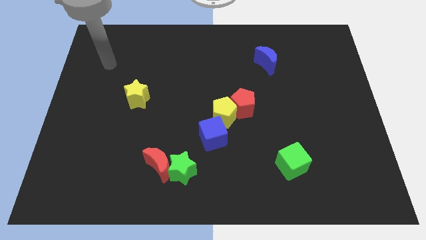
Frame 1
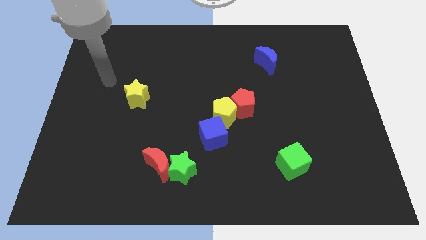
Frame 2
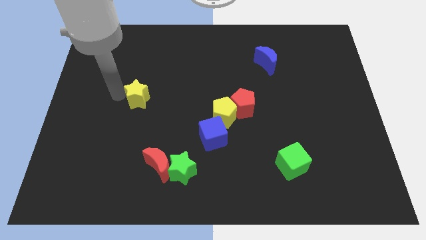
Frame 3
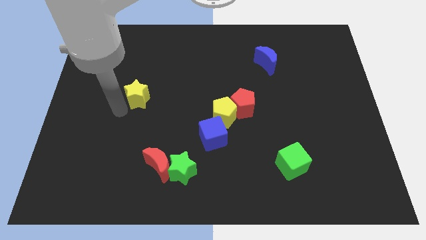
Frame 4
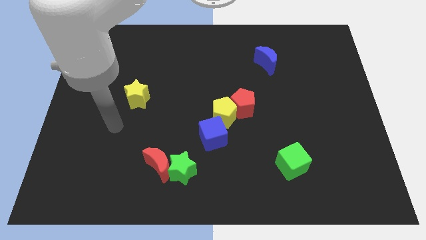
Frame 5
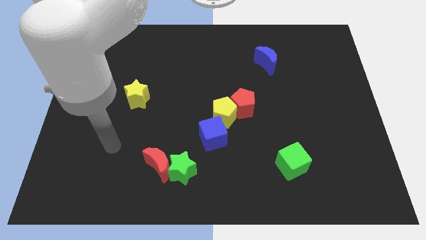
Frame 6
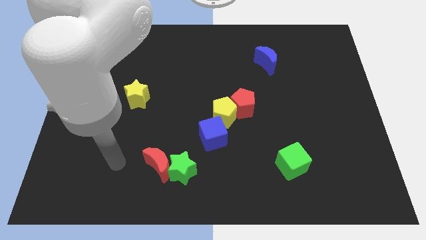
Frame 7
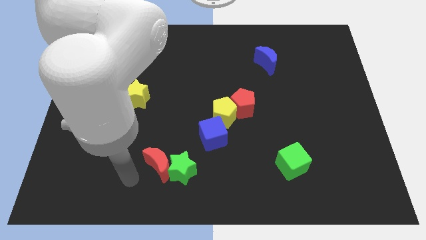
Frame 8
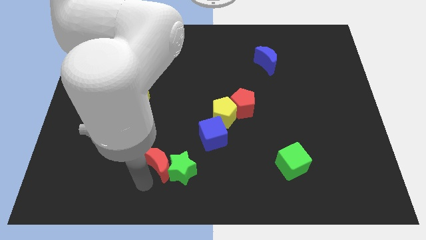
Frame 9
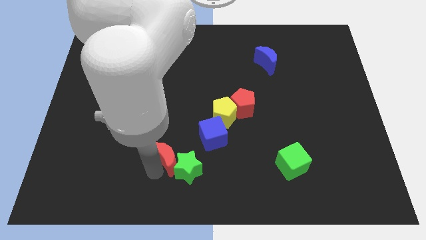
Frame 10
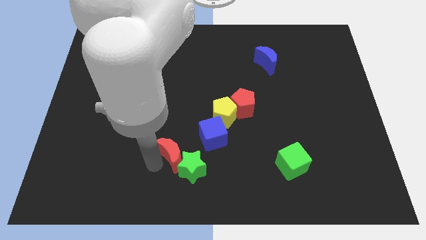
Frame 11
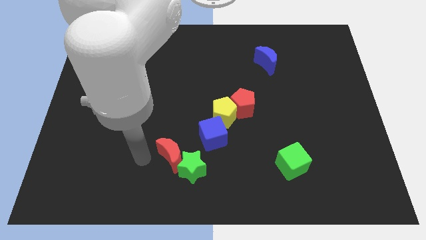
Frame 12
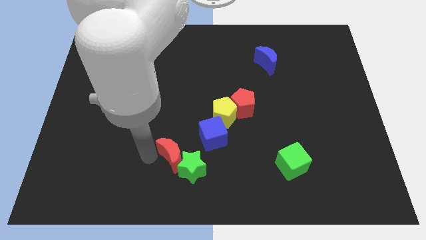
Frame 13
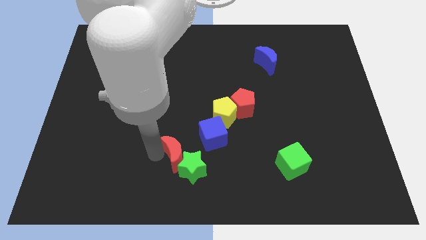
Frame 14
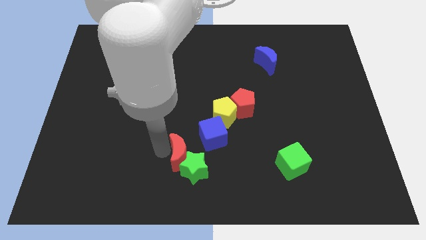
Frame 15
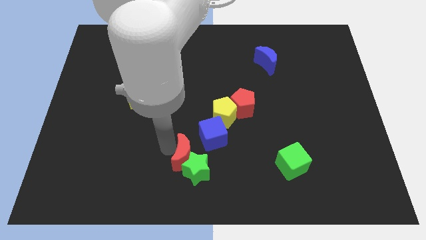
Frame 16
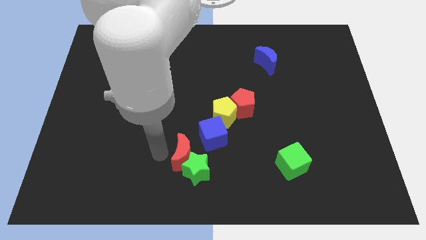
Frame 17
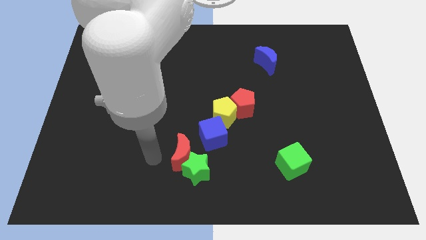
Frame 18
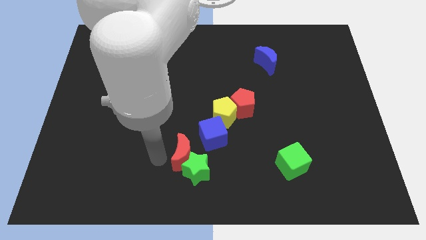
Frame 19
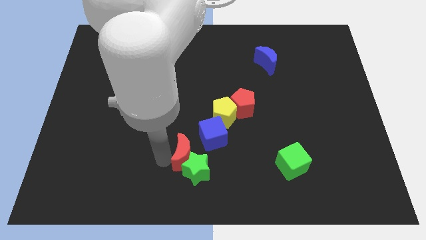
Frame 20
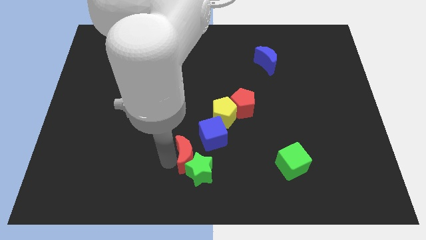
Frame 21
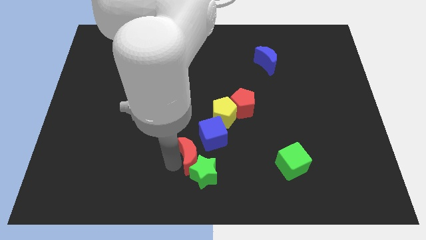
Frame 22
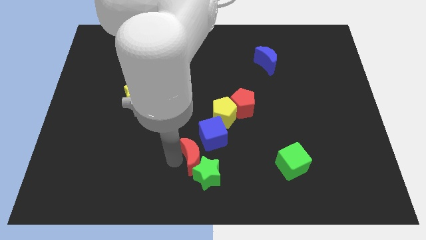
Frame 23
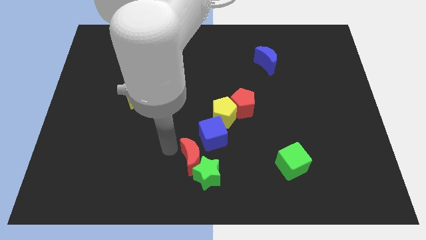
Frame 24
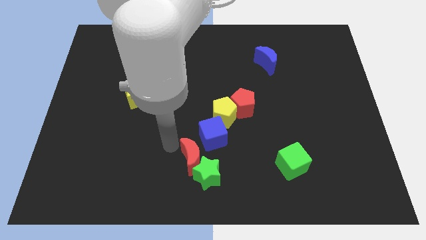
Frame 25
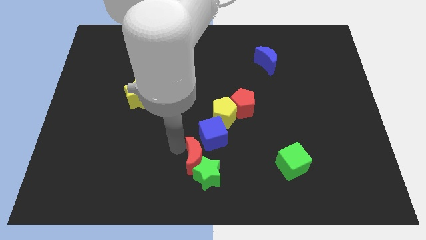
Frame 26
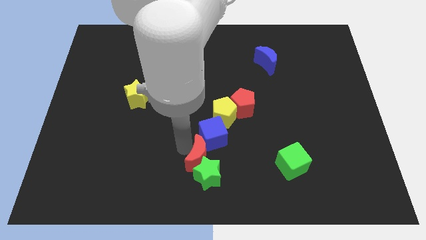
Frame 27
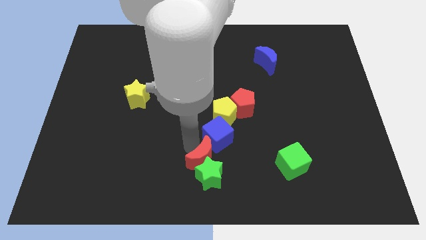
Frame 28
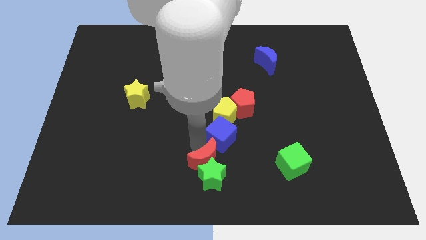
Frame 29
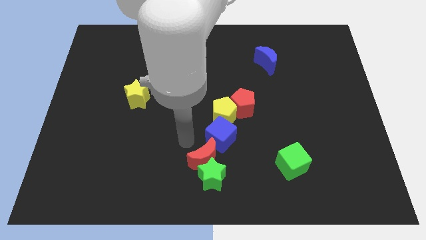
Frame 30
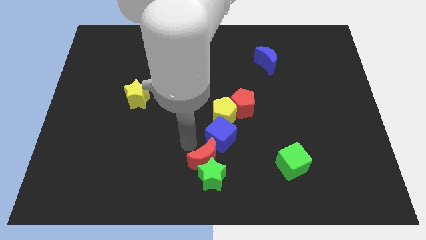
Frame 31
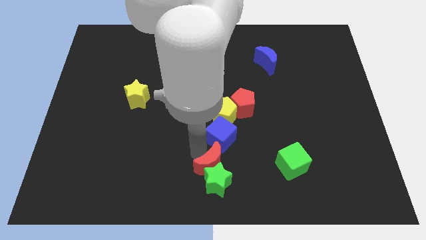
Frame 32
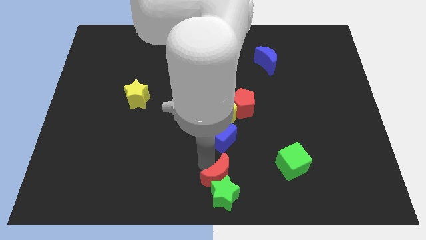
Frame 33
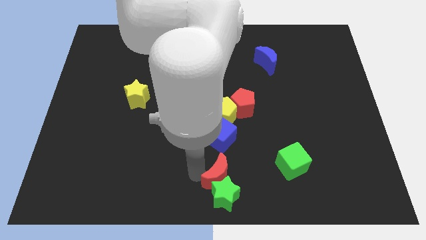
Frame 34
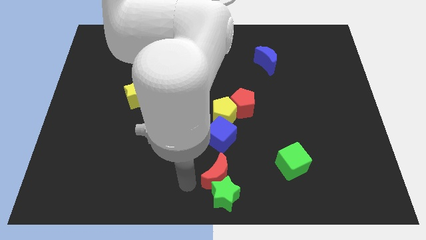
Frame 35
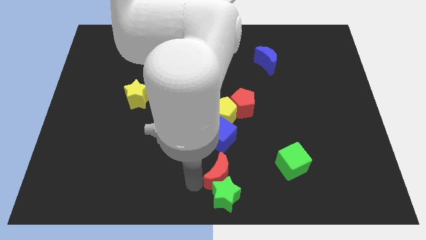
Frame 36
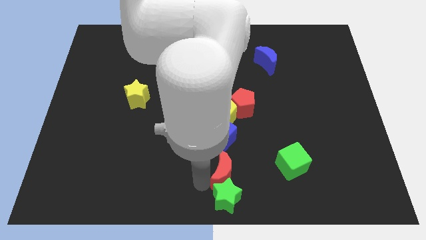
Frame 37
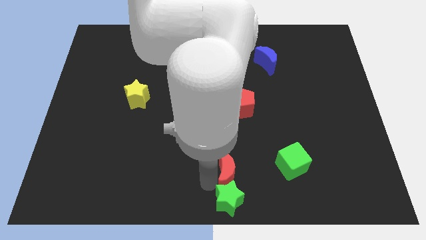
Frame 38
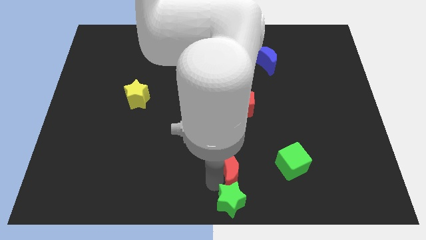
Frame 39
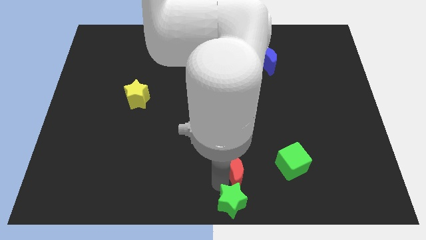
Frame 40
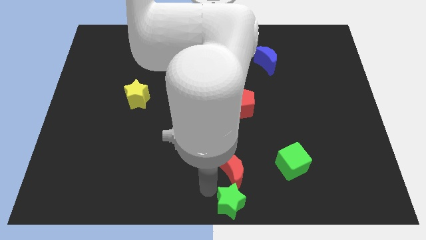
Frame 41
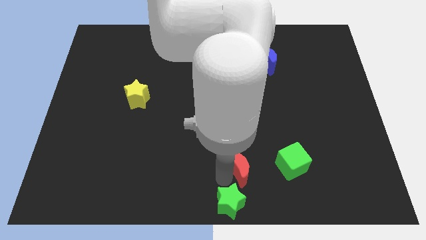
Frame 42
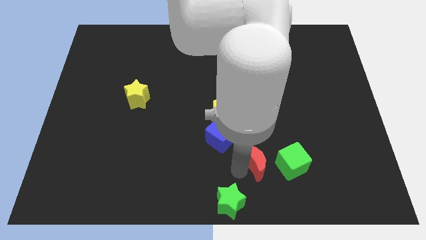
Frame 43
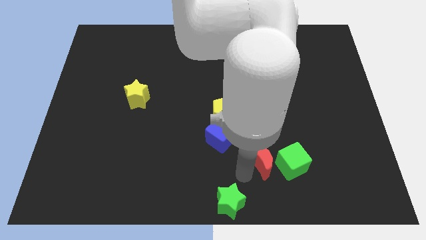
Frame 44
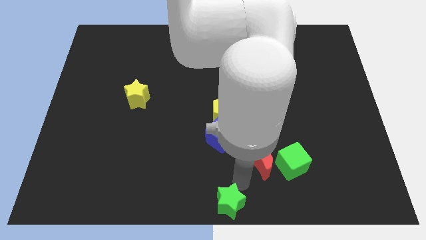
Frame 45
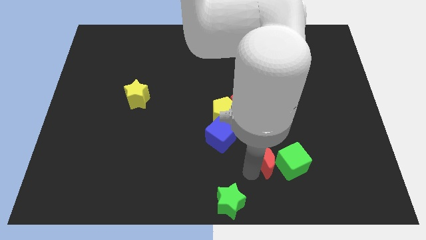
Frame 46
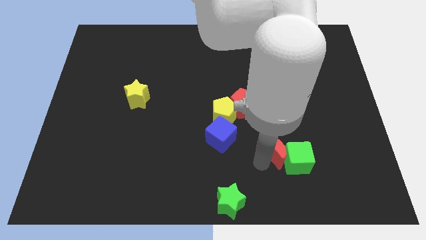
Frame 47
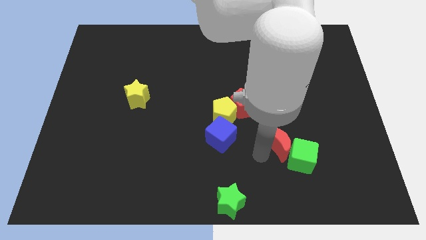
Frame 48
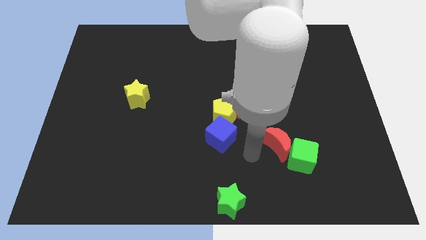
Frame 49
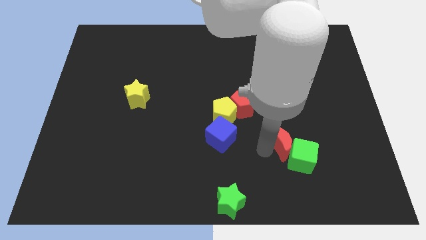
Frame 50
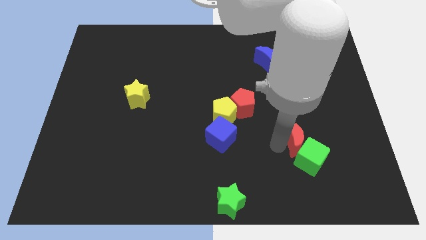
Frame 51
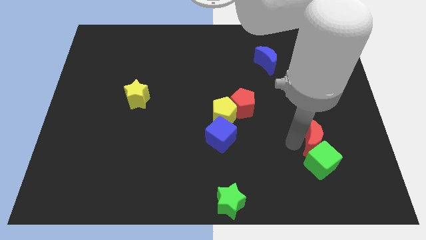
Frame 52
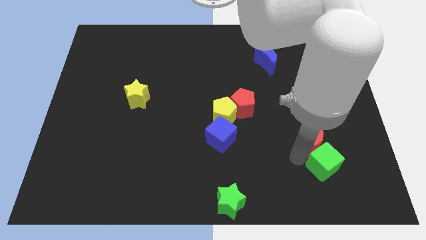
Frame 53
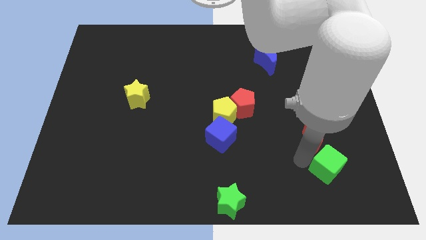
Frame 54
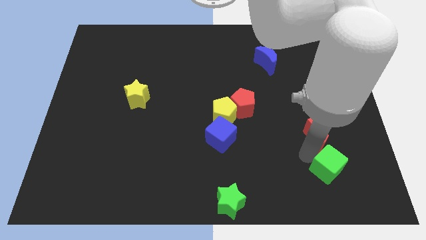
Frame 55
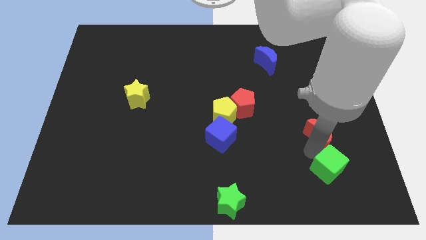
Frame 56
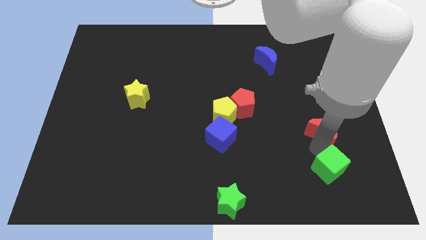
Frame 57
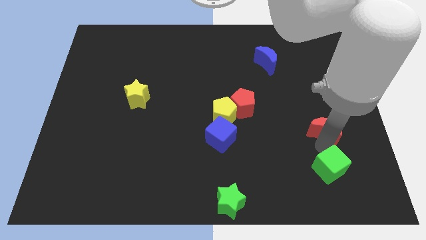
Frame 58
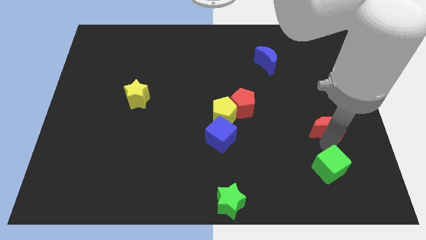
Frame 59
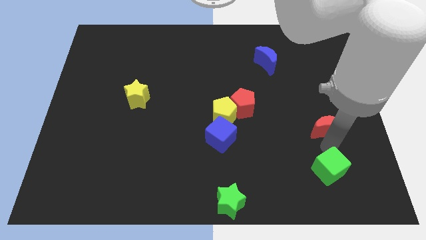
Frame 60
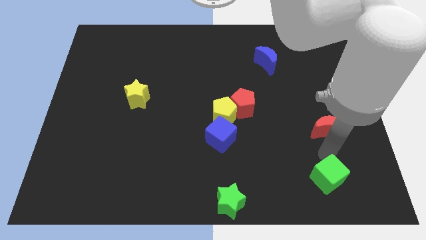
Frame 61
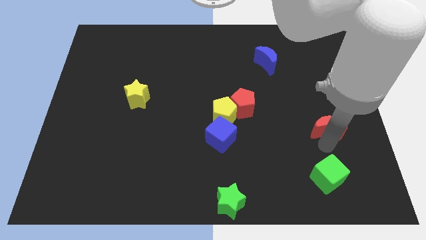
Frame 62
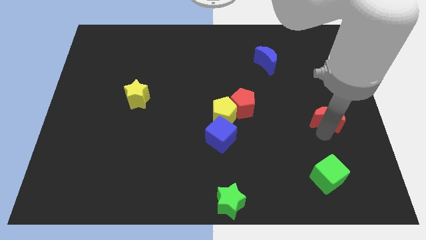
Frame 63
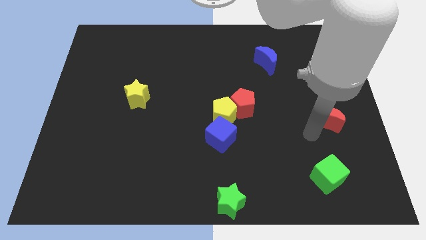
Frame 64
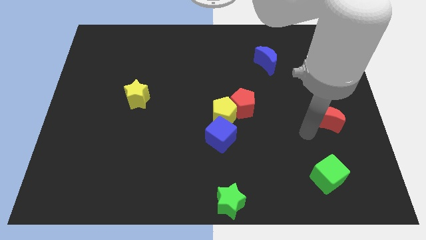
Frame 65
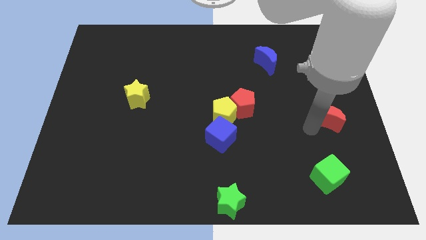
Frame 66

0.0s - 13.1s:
slide the red moon to the center right

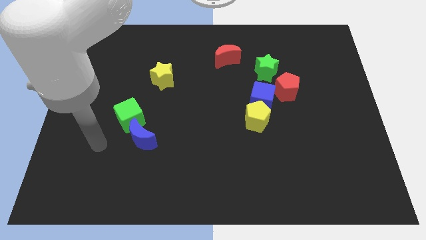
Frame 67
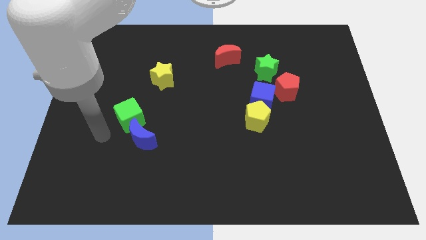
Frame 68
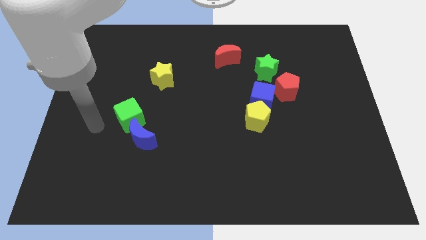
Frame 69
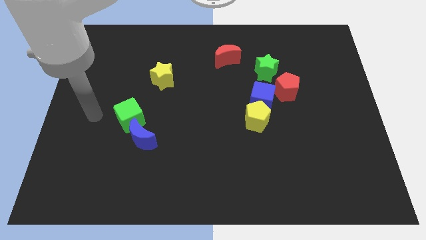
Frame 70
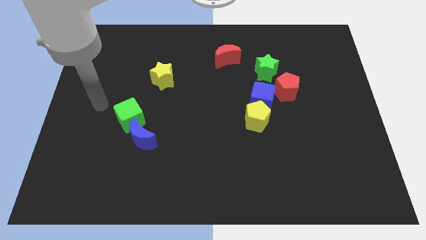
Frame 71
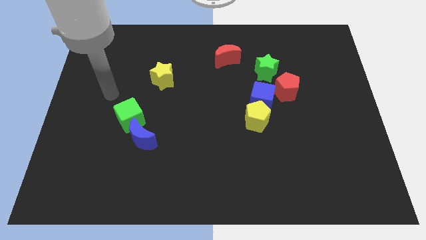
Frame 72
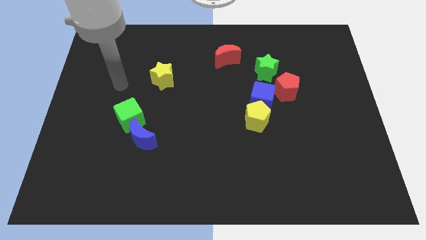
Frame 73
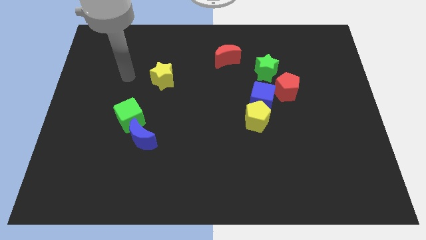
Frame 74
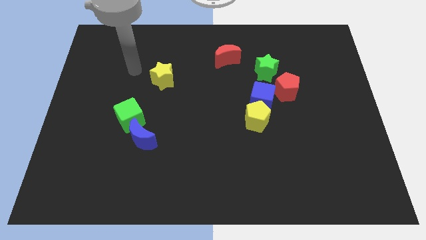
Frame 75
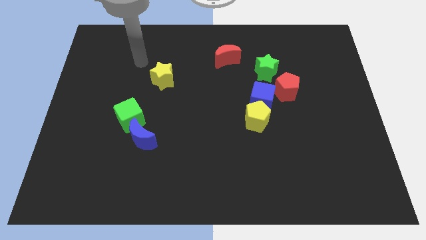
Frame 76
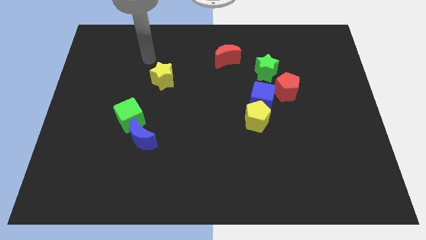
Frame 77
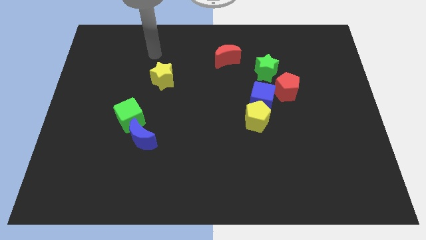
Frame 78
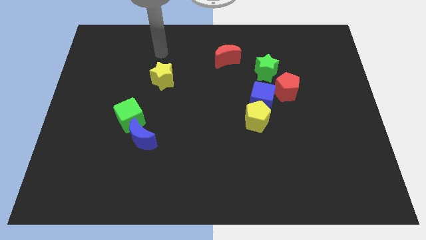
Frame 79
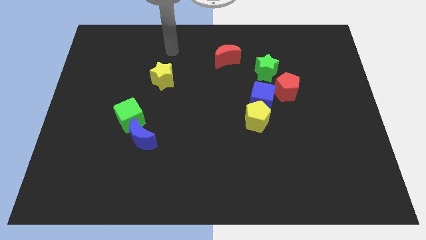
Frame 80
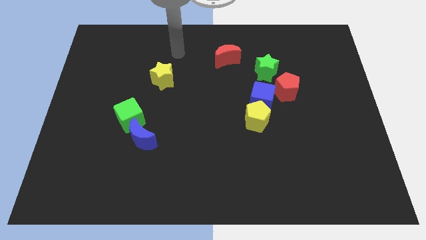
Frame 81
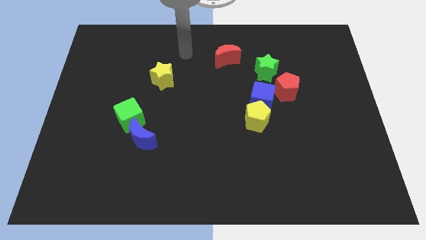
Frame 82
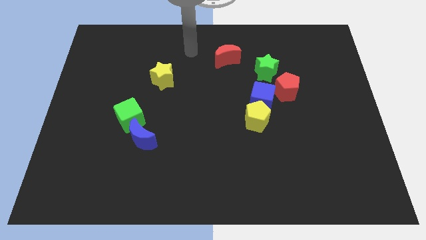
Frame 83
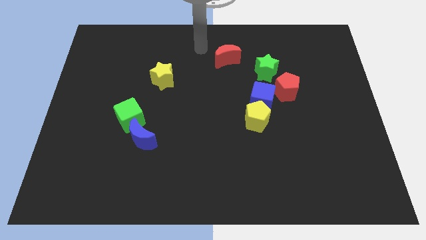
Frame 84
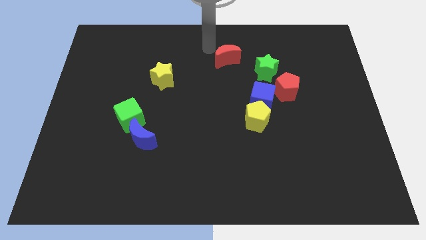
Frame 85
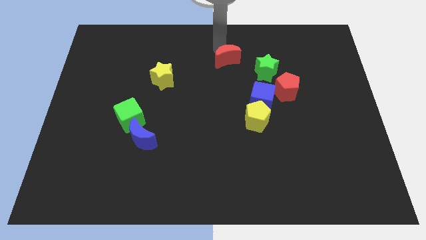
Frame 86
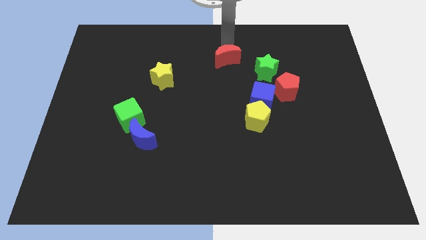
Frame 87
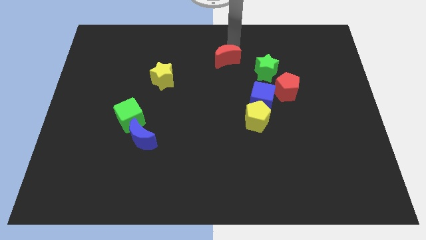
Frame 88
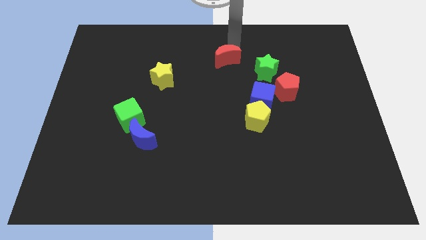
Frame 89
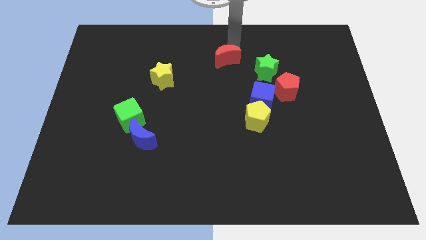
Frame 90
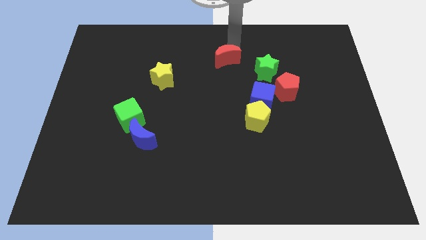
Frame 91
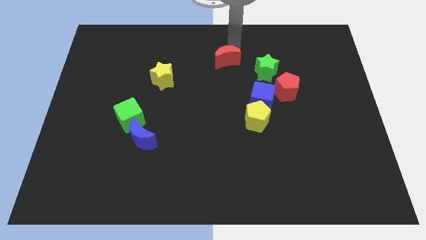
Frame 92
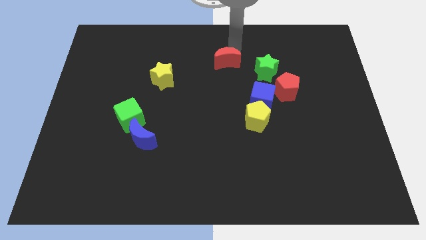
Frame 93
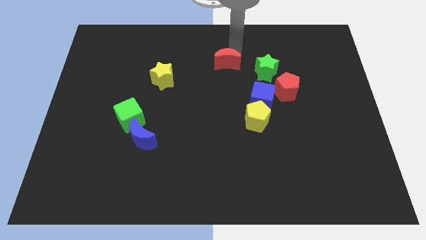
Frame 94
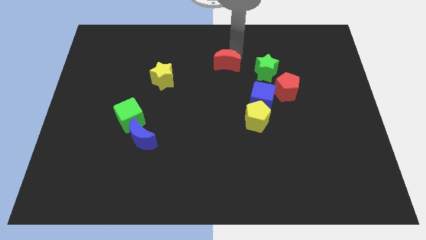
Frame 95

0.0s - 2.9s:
slide the red moon to the middle of the board
